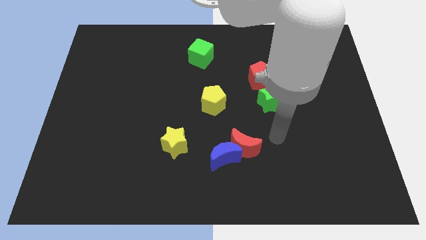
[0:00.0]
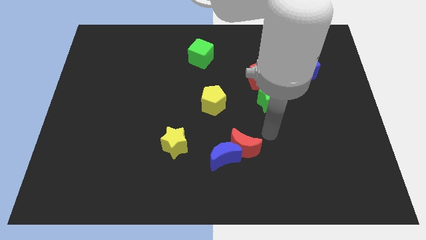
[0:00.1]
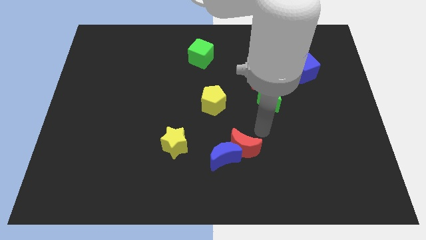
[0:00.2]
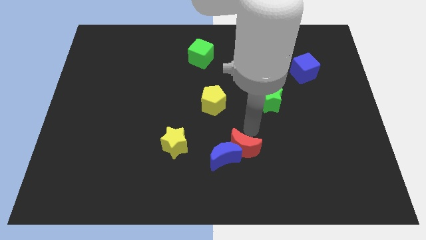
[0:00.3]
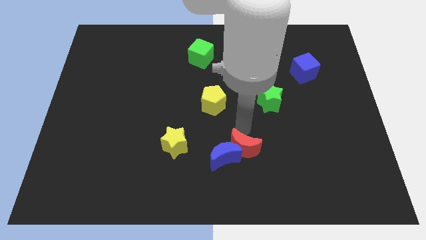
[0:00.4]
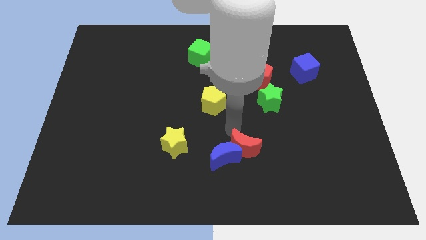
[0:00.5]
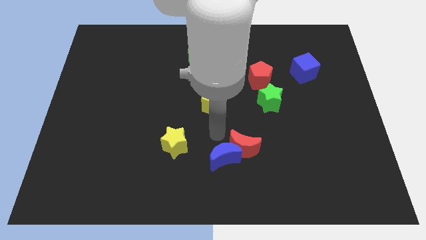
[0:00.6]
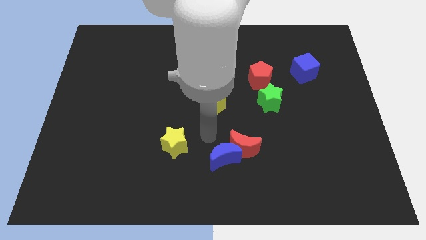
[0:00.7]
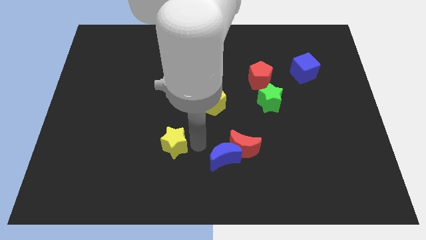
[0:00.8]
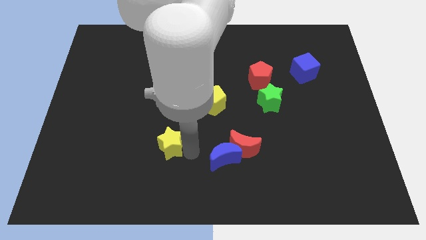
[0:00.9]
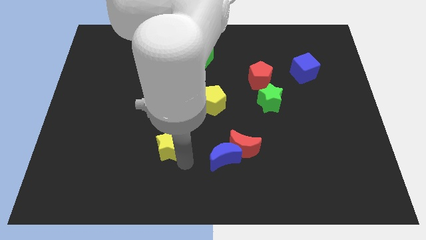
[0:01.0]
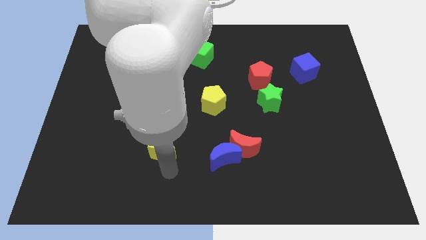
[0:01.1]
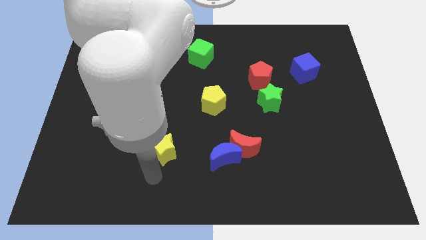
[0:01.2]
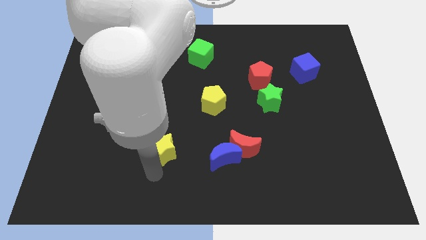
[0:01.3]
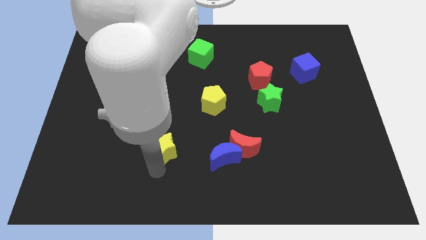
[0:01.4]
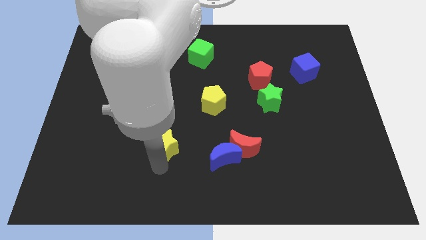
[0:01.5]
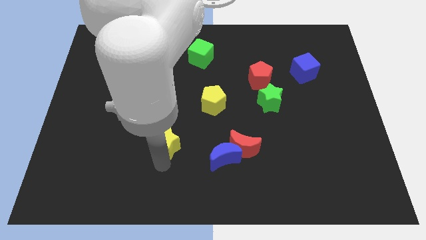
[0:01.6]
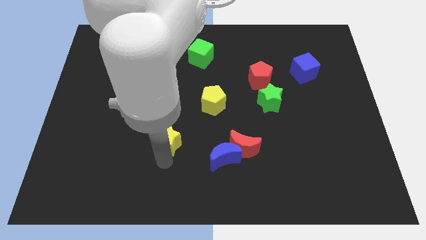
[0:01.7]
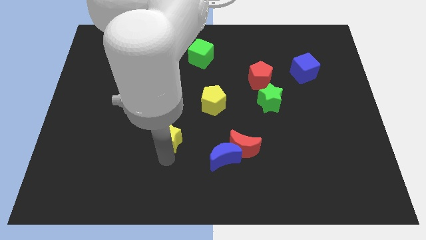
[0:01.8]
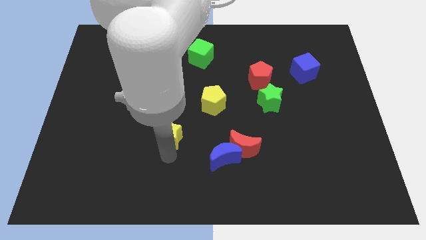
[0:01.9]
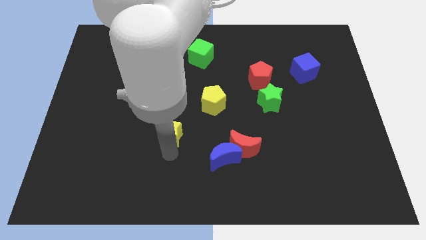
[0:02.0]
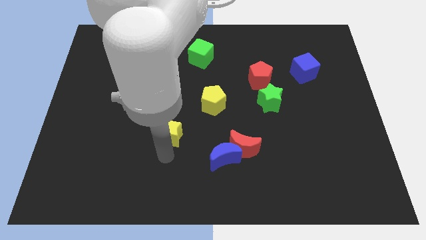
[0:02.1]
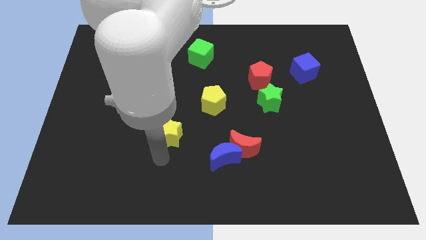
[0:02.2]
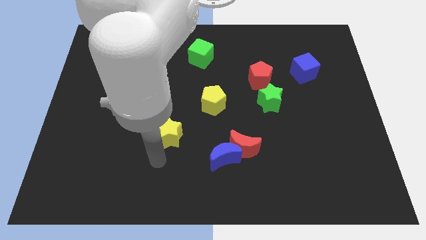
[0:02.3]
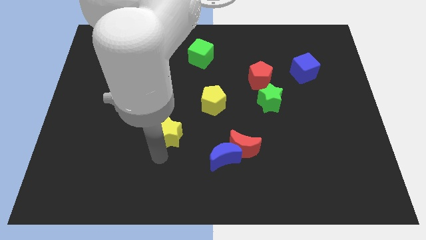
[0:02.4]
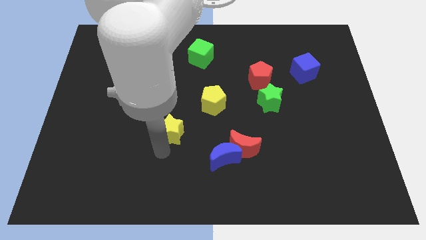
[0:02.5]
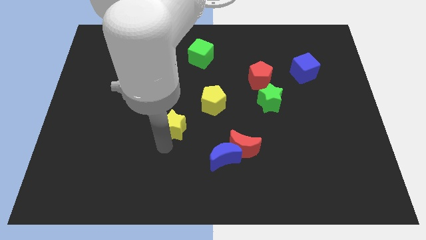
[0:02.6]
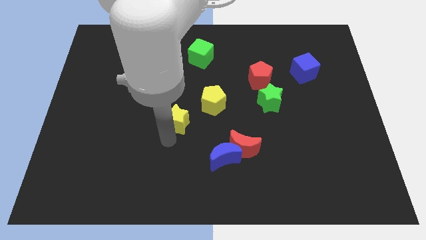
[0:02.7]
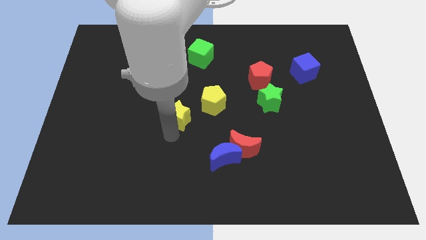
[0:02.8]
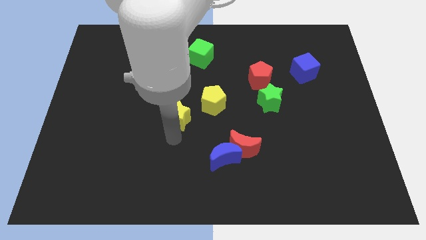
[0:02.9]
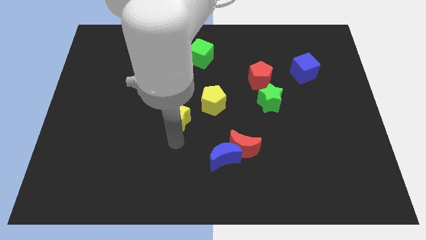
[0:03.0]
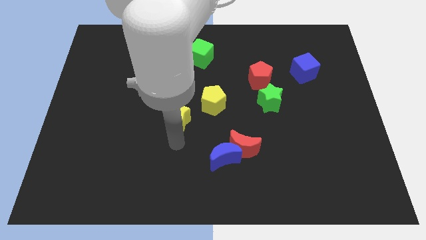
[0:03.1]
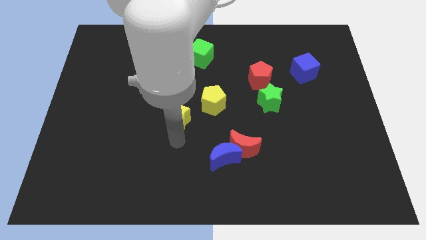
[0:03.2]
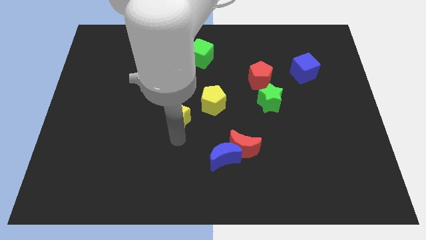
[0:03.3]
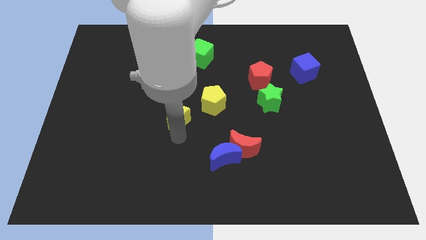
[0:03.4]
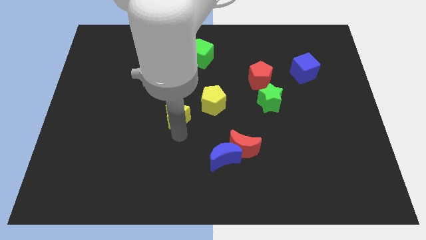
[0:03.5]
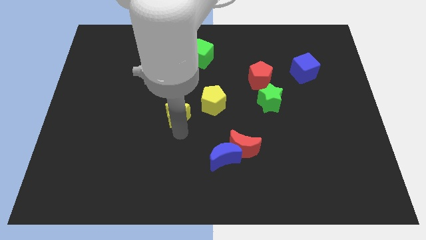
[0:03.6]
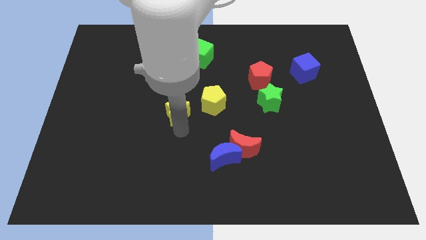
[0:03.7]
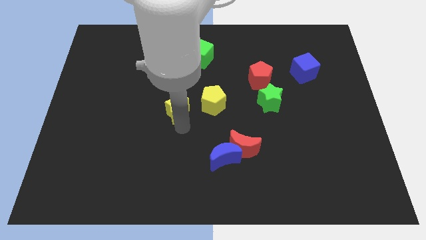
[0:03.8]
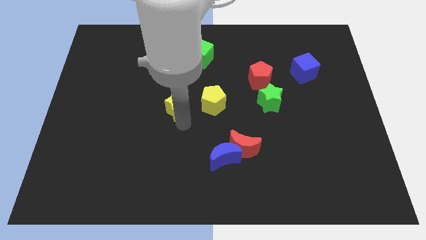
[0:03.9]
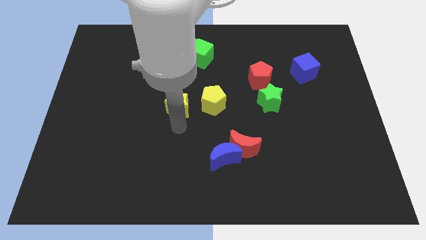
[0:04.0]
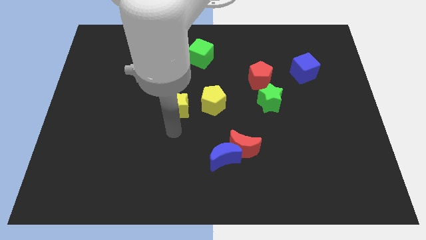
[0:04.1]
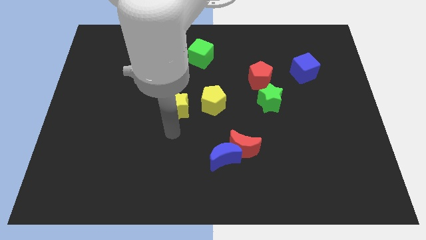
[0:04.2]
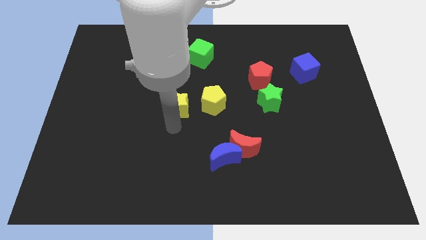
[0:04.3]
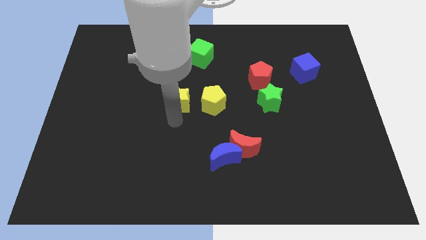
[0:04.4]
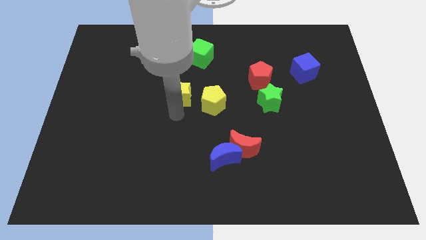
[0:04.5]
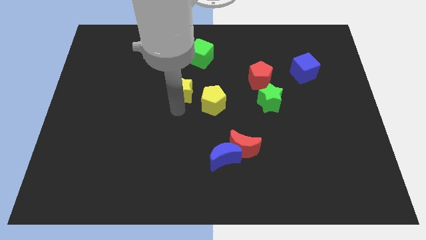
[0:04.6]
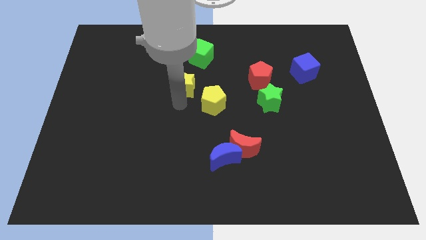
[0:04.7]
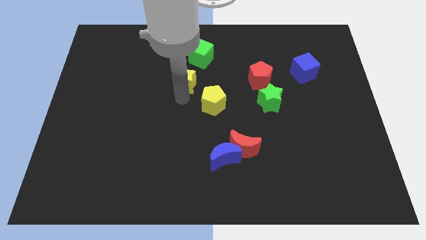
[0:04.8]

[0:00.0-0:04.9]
push the yellow star to the bottom left side of the green cube

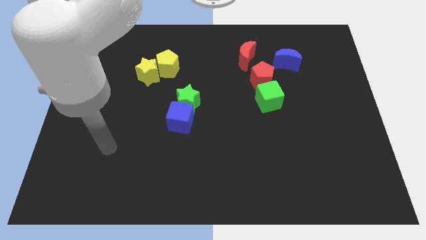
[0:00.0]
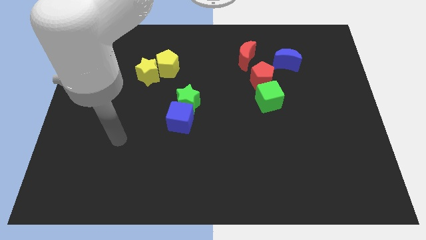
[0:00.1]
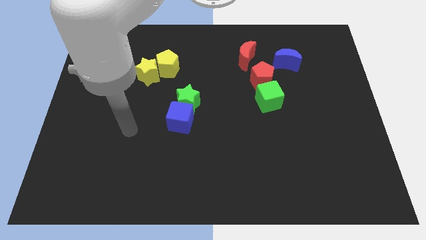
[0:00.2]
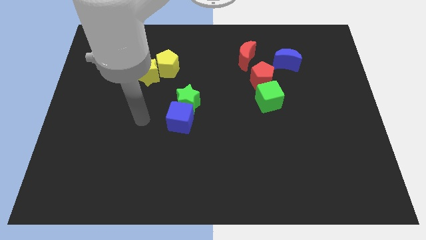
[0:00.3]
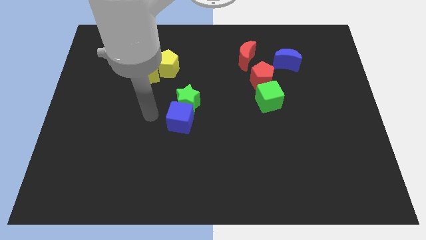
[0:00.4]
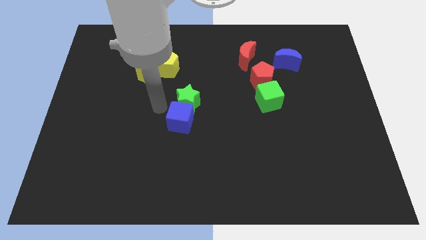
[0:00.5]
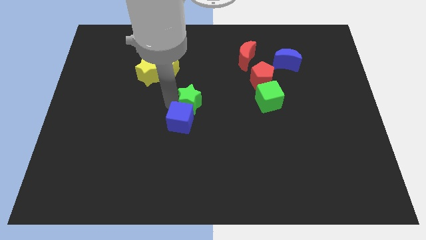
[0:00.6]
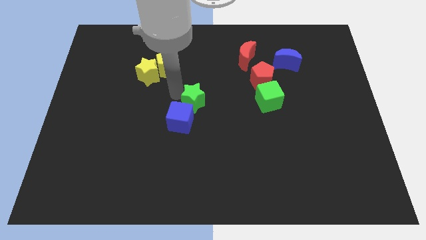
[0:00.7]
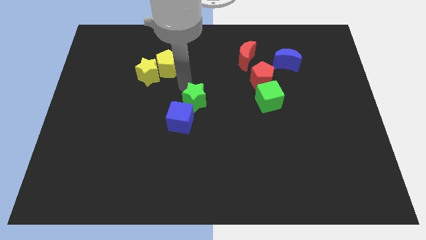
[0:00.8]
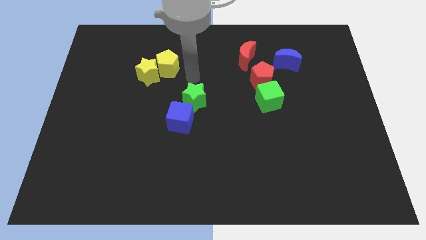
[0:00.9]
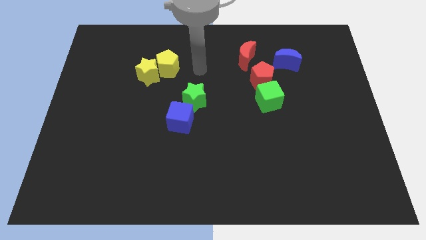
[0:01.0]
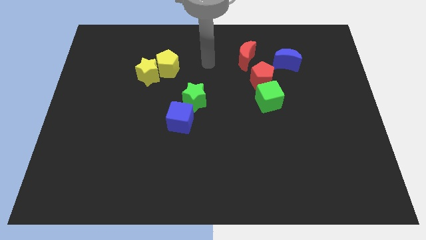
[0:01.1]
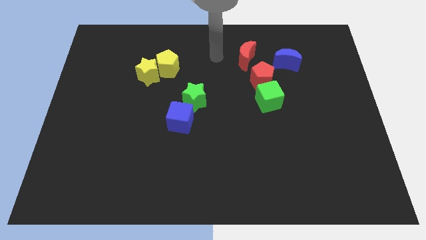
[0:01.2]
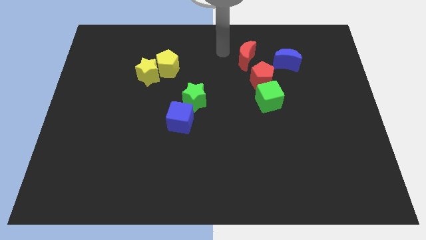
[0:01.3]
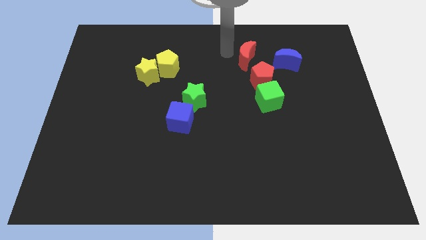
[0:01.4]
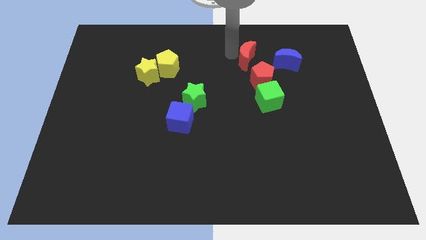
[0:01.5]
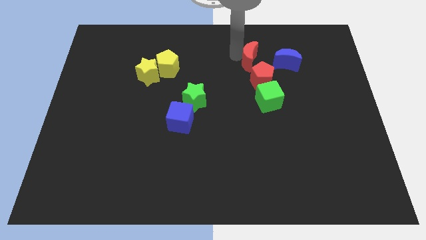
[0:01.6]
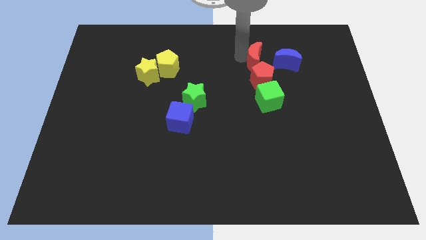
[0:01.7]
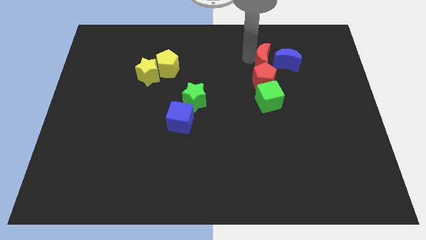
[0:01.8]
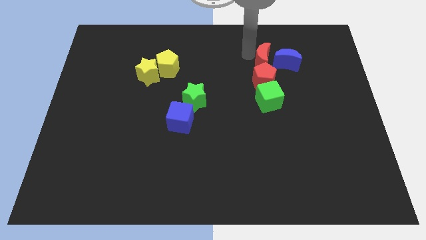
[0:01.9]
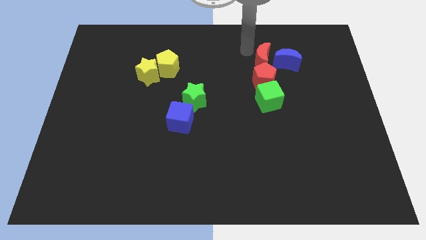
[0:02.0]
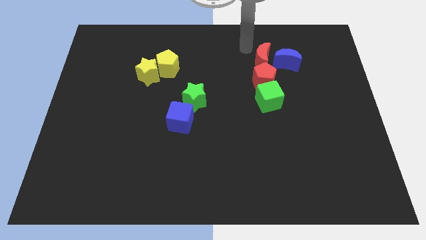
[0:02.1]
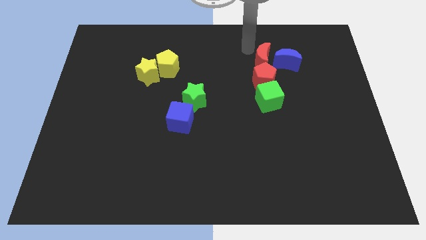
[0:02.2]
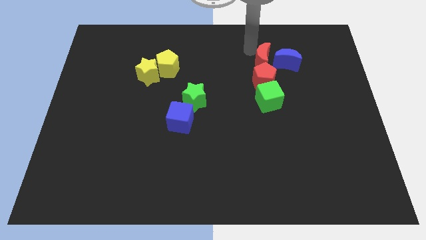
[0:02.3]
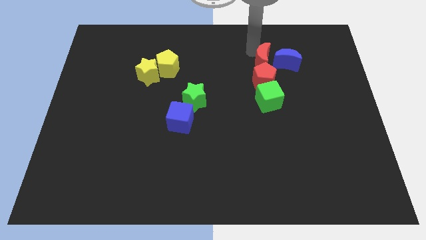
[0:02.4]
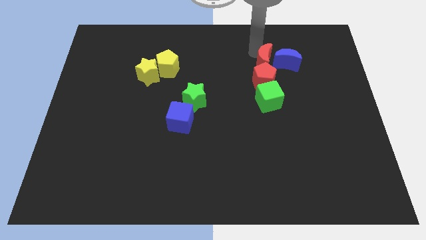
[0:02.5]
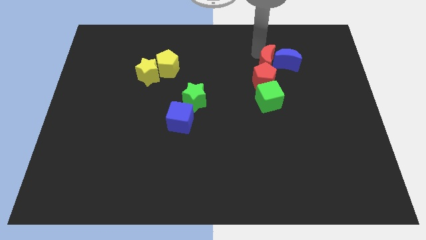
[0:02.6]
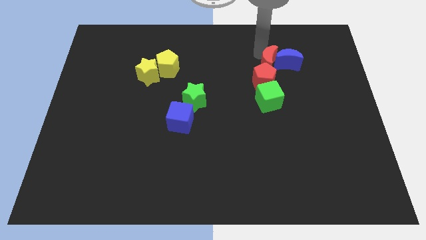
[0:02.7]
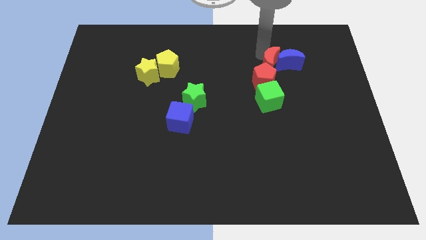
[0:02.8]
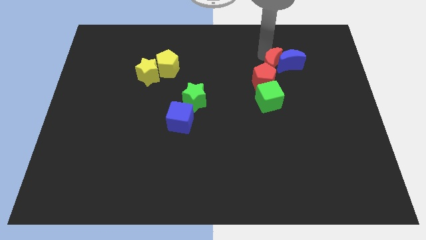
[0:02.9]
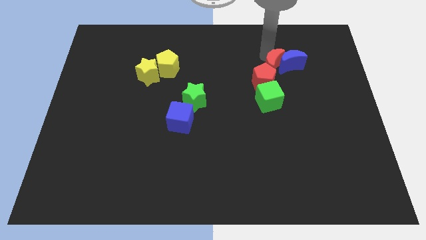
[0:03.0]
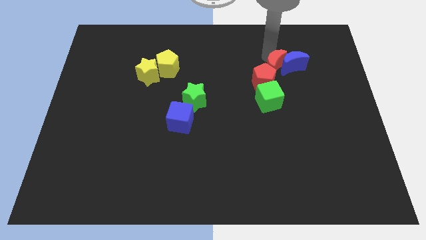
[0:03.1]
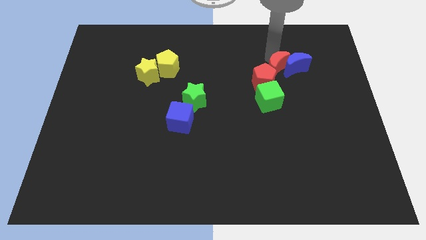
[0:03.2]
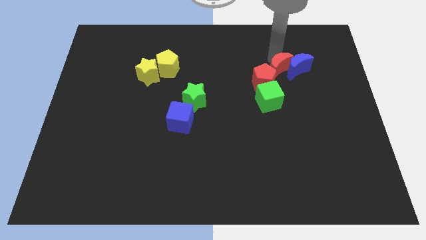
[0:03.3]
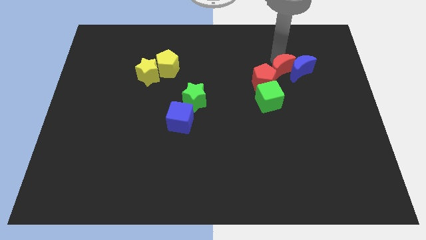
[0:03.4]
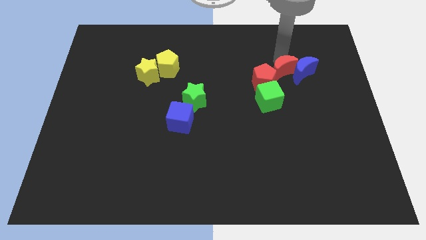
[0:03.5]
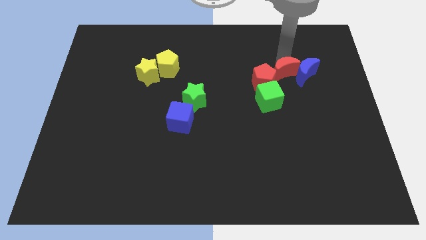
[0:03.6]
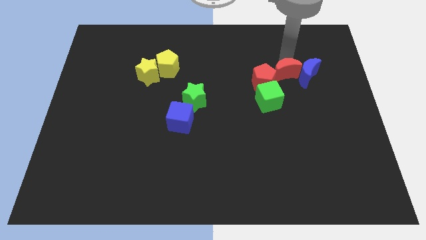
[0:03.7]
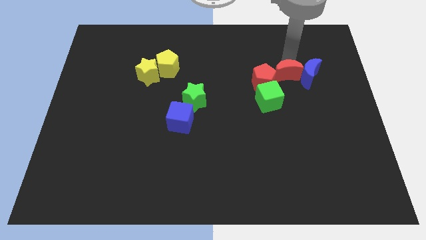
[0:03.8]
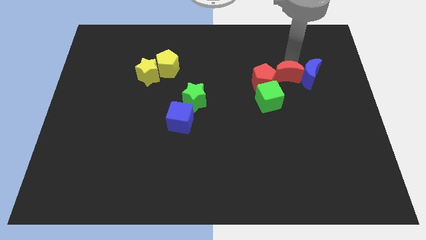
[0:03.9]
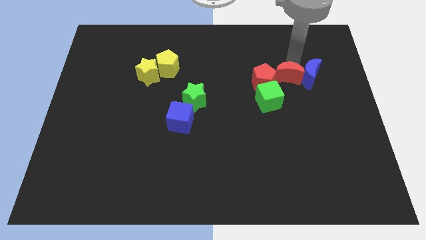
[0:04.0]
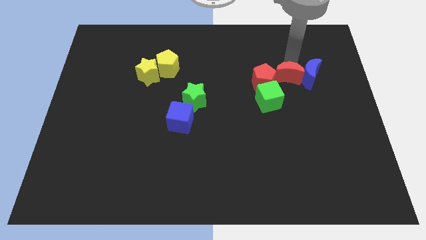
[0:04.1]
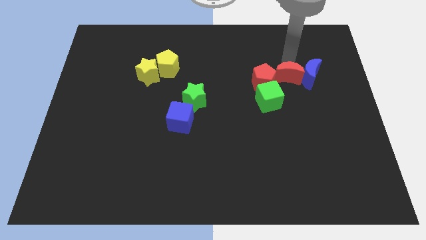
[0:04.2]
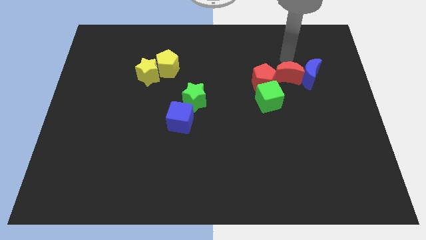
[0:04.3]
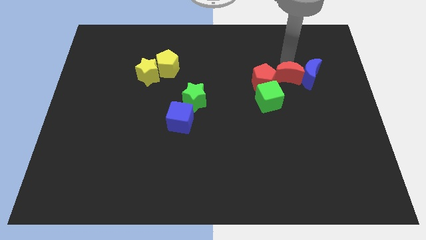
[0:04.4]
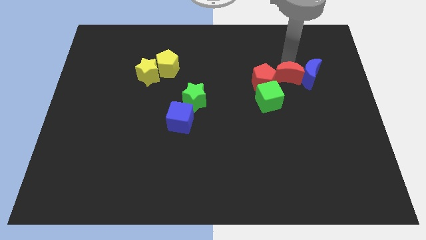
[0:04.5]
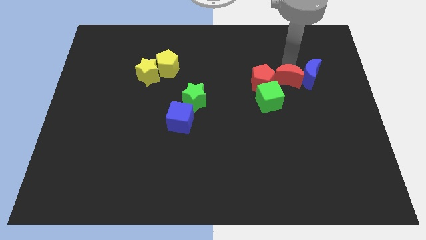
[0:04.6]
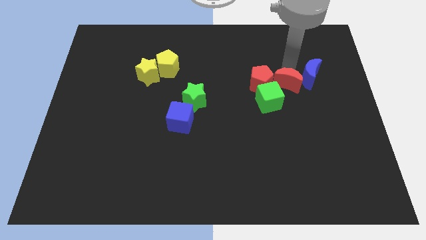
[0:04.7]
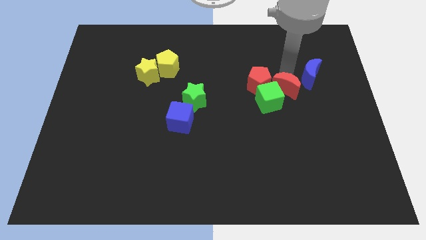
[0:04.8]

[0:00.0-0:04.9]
slide the red moon right of the green cube
